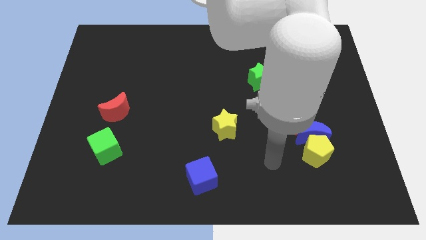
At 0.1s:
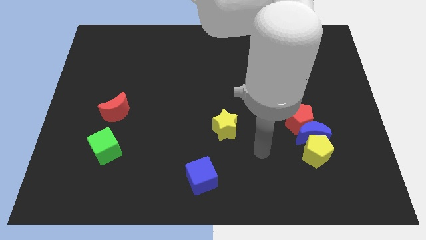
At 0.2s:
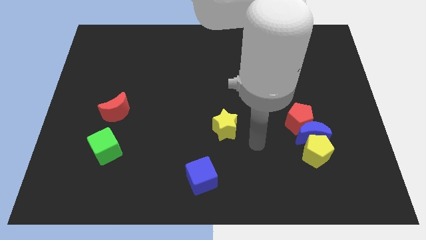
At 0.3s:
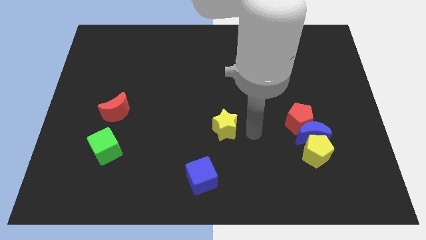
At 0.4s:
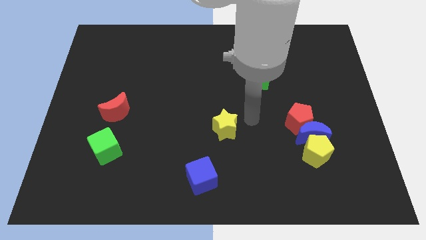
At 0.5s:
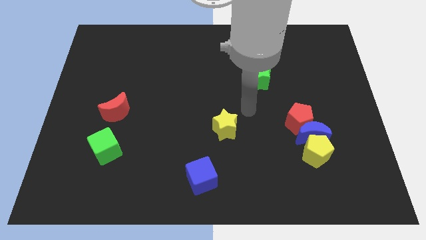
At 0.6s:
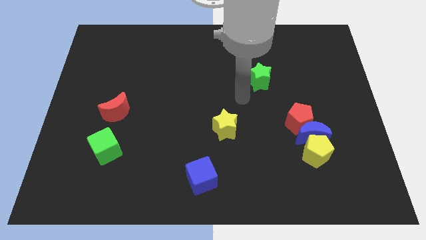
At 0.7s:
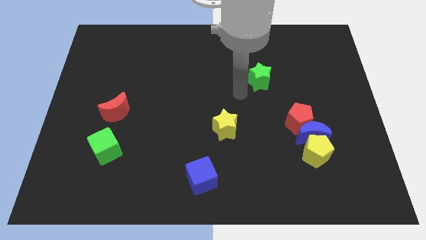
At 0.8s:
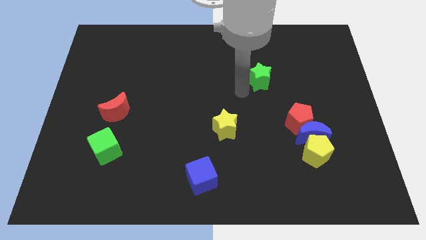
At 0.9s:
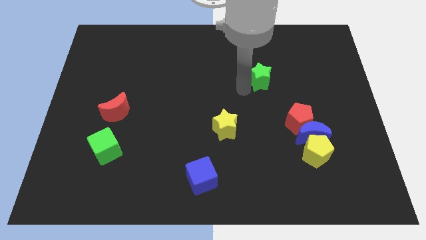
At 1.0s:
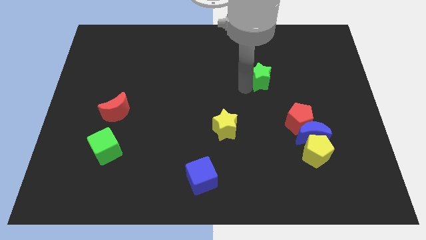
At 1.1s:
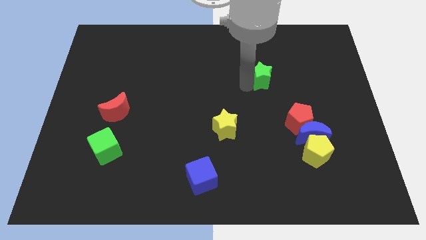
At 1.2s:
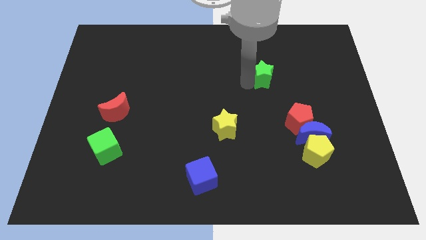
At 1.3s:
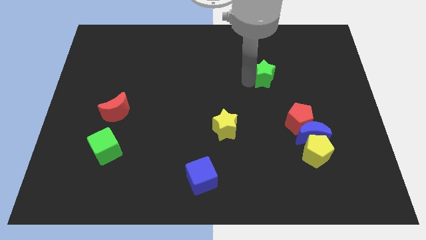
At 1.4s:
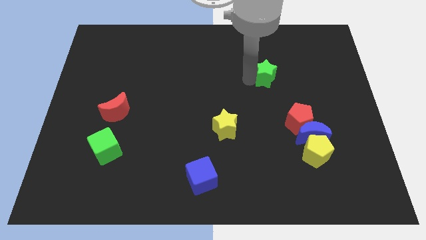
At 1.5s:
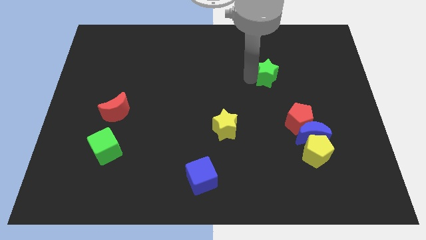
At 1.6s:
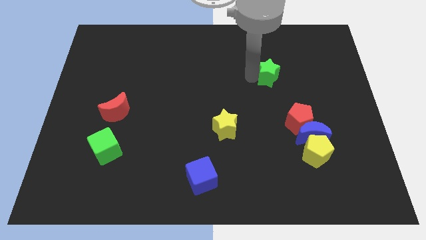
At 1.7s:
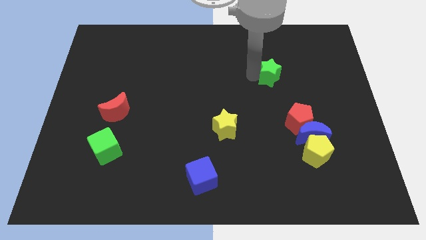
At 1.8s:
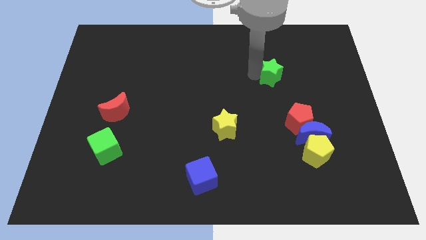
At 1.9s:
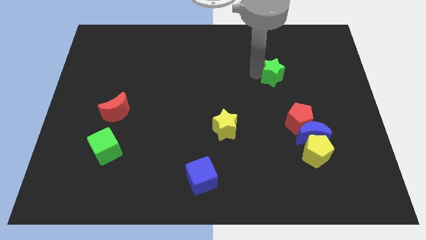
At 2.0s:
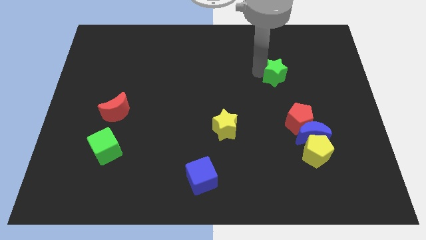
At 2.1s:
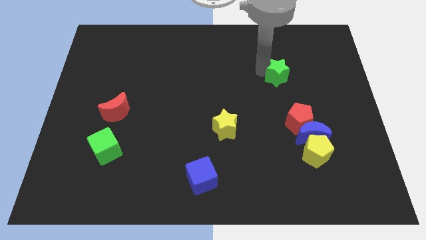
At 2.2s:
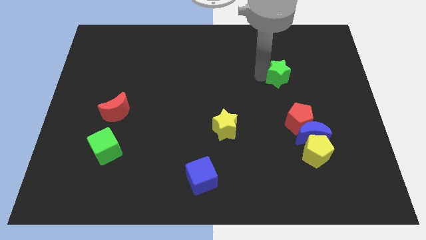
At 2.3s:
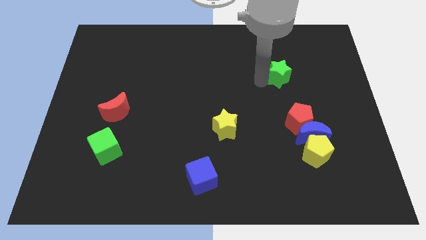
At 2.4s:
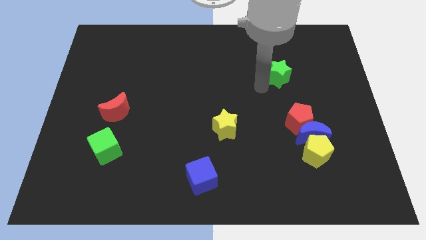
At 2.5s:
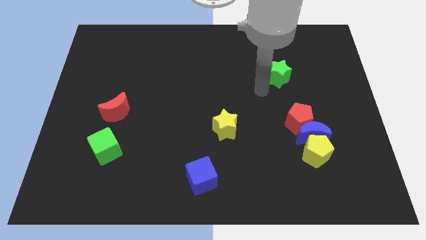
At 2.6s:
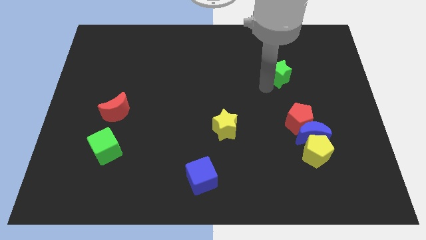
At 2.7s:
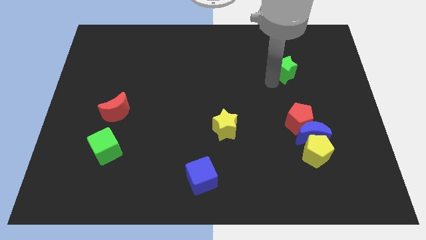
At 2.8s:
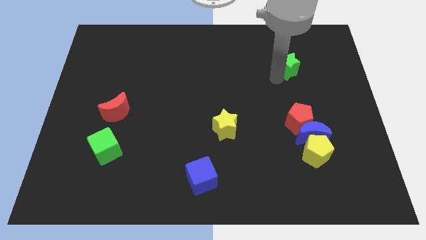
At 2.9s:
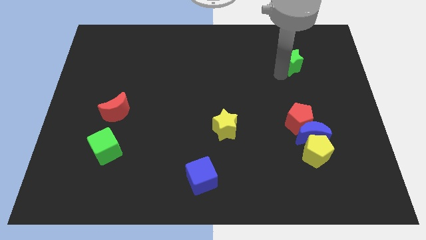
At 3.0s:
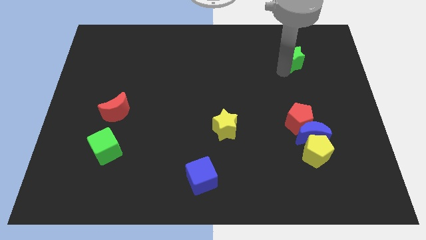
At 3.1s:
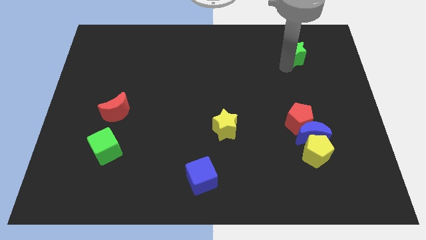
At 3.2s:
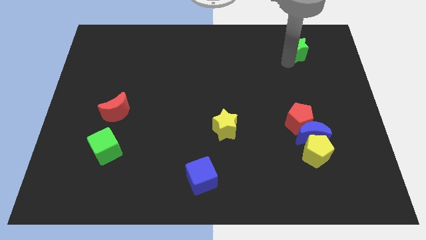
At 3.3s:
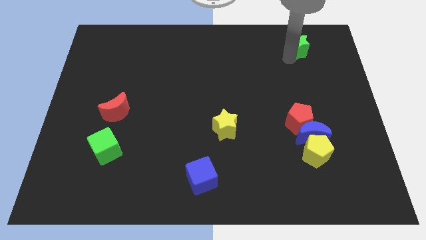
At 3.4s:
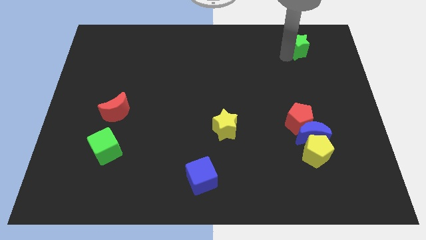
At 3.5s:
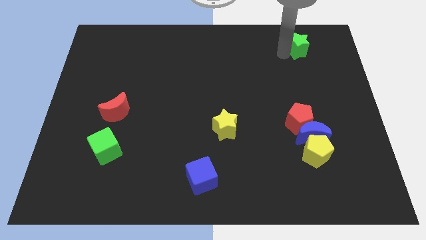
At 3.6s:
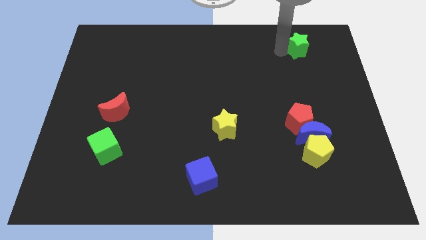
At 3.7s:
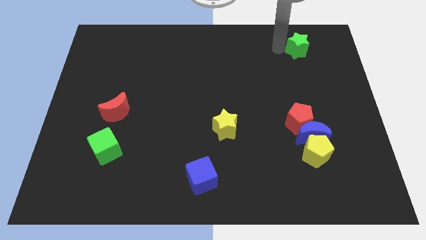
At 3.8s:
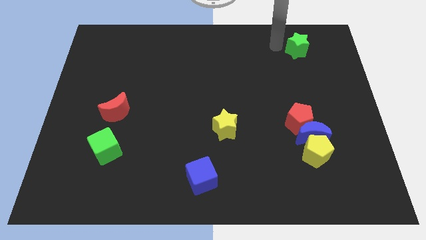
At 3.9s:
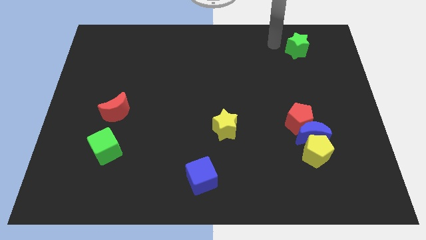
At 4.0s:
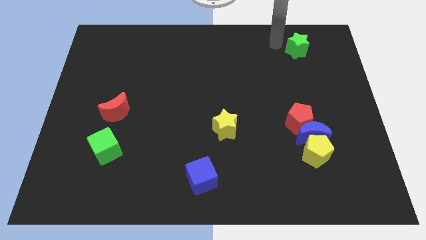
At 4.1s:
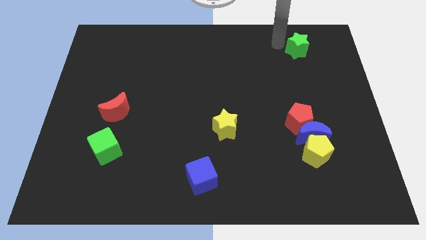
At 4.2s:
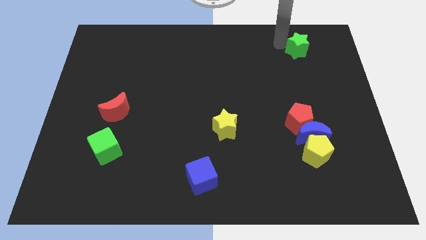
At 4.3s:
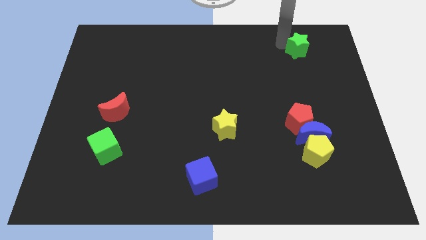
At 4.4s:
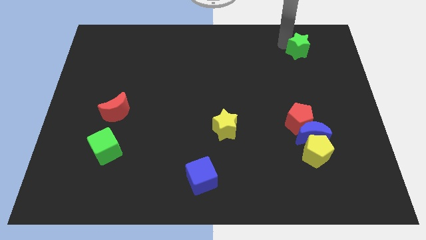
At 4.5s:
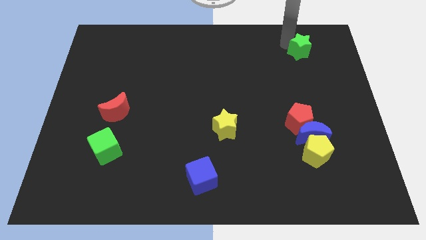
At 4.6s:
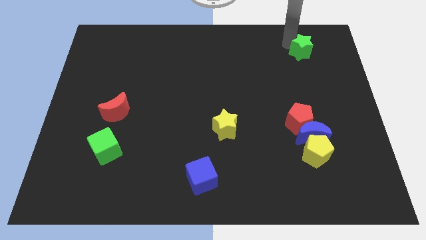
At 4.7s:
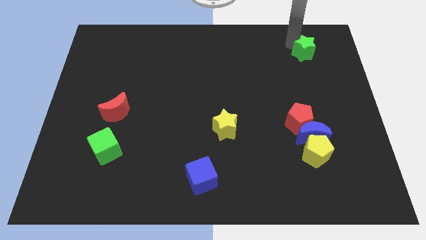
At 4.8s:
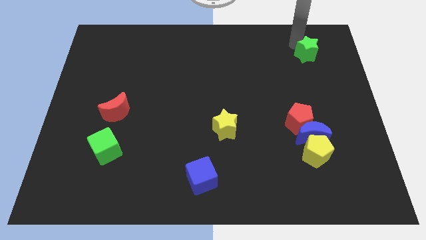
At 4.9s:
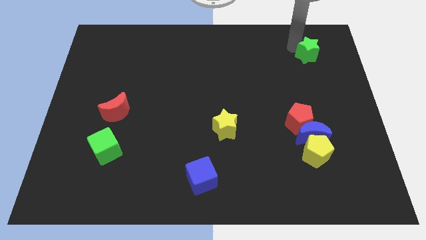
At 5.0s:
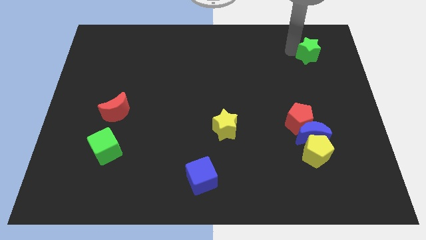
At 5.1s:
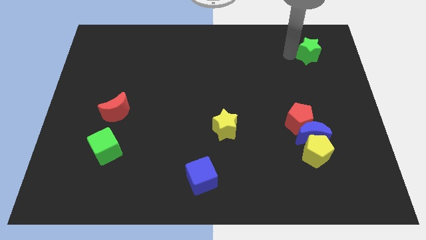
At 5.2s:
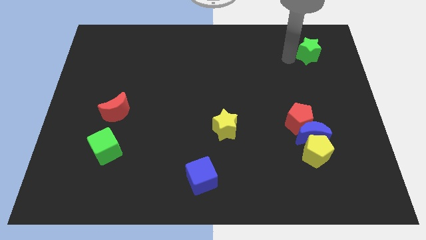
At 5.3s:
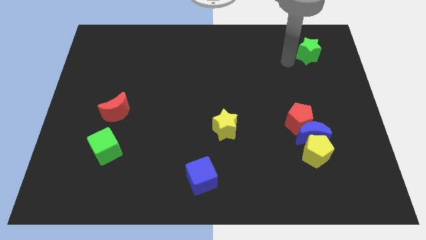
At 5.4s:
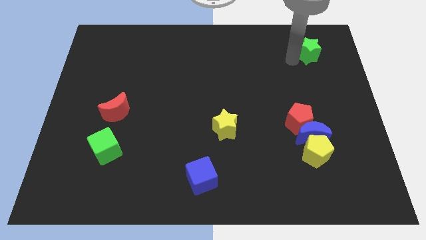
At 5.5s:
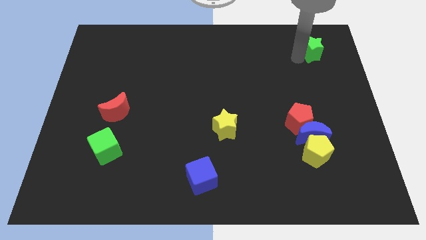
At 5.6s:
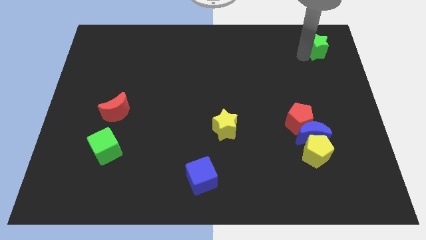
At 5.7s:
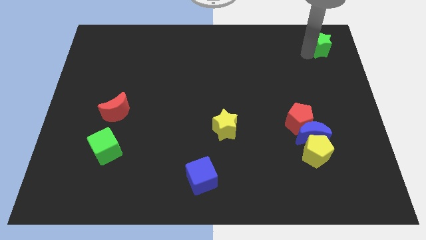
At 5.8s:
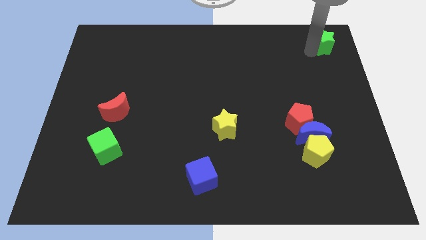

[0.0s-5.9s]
slide the green star to the top right

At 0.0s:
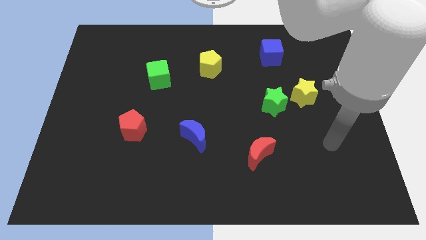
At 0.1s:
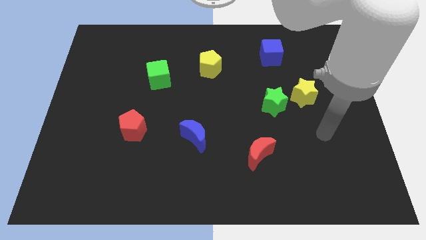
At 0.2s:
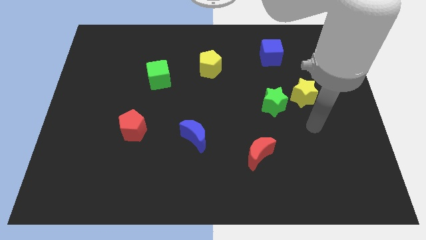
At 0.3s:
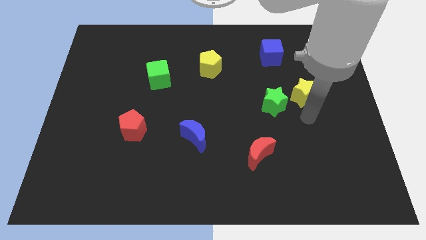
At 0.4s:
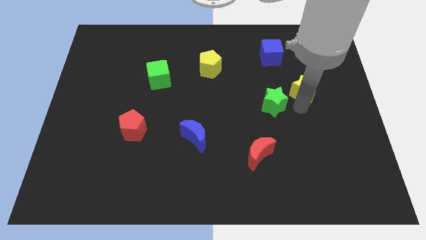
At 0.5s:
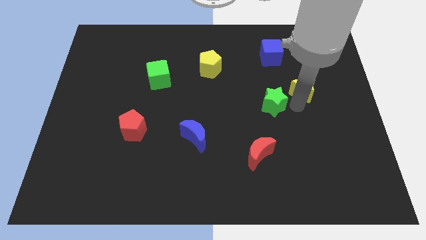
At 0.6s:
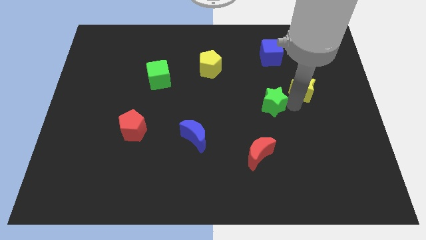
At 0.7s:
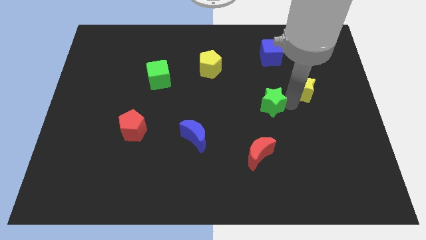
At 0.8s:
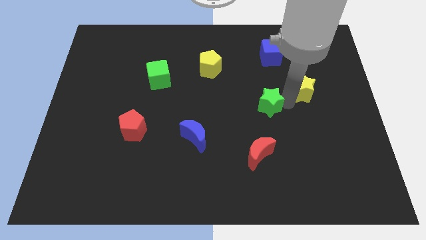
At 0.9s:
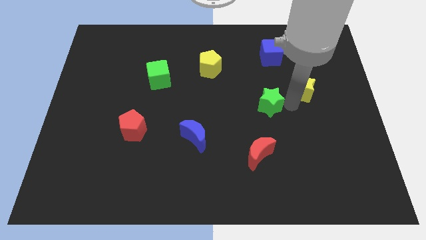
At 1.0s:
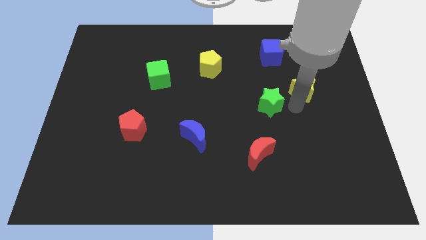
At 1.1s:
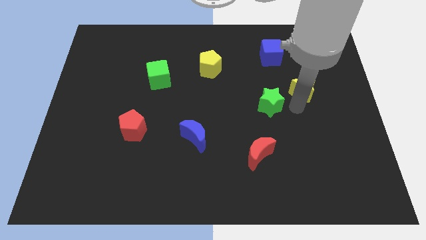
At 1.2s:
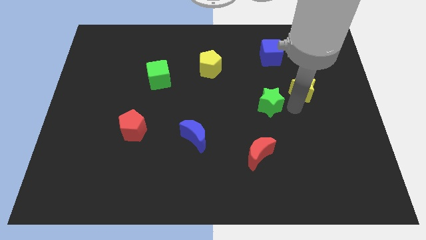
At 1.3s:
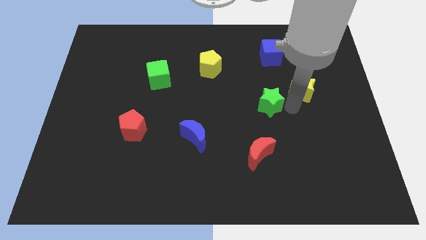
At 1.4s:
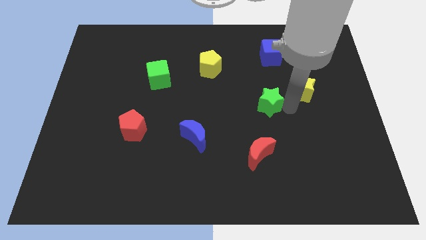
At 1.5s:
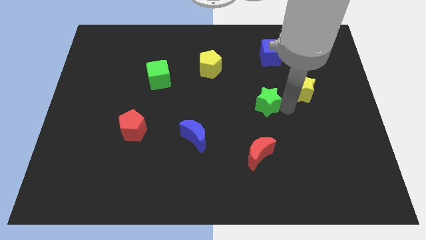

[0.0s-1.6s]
slide the green star to the center of the board
